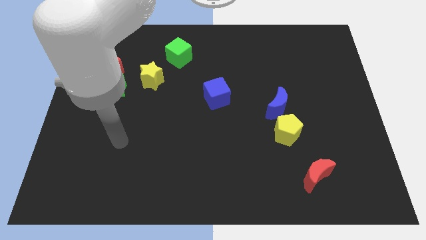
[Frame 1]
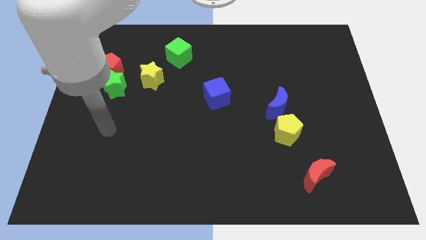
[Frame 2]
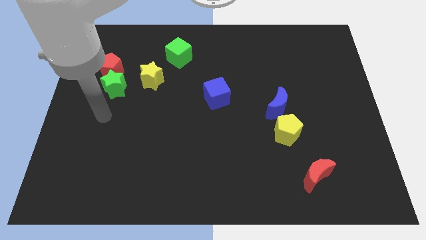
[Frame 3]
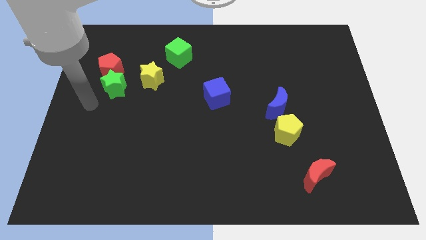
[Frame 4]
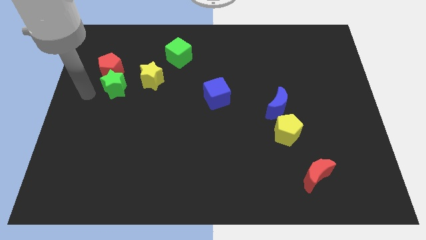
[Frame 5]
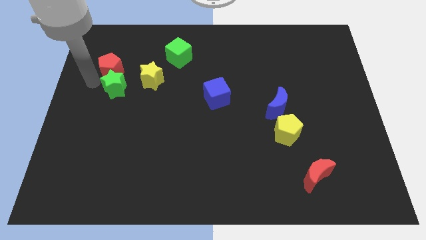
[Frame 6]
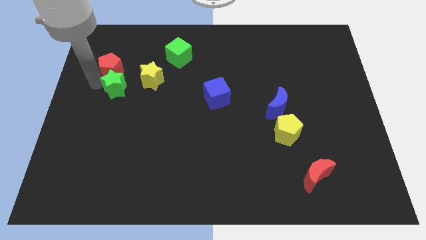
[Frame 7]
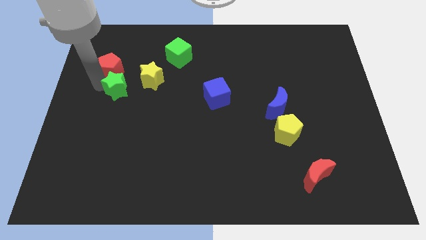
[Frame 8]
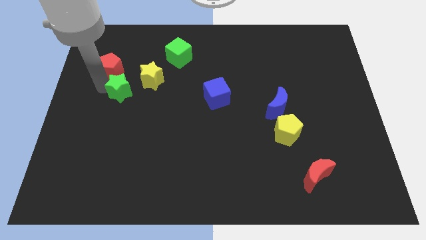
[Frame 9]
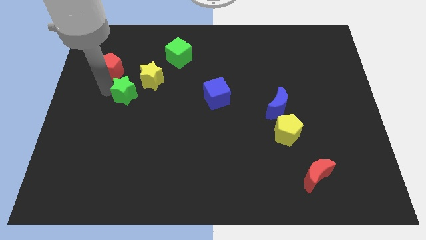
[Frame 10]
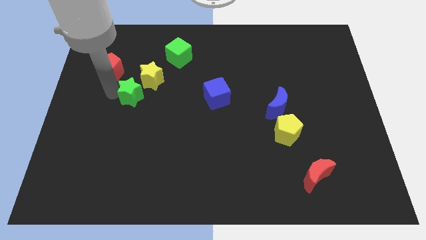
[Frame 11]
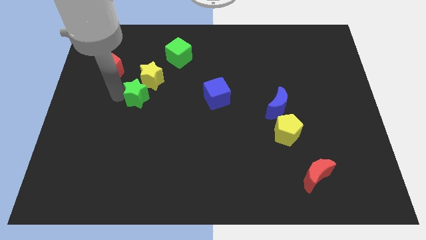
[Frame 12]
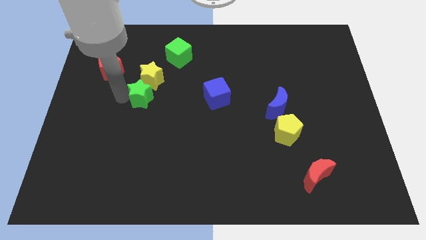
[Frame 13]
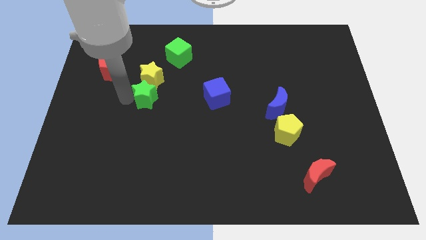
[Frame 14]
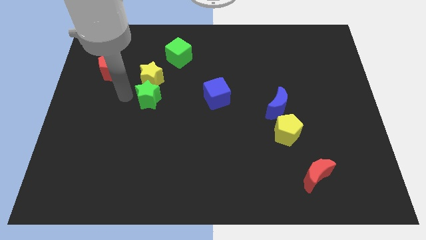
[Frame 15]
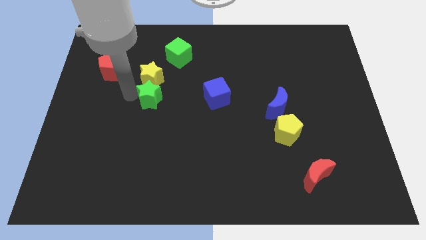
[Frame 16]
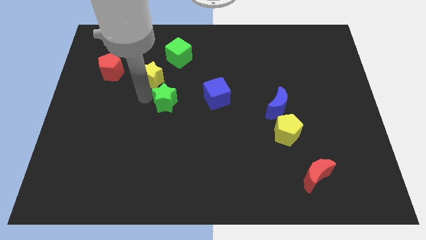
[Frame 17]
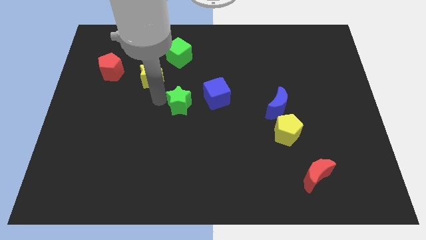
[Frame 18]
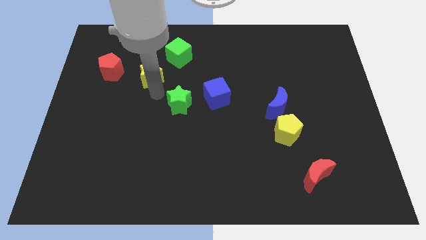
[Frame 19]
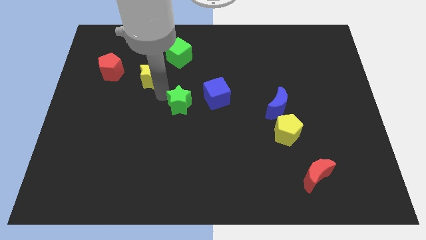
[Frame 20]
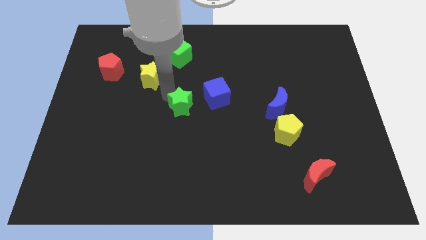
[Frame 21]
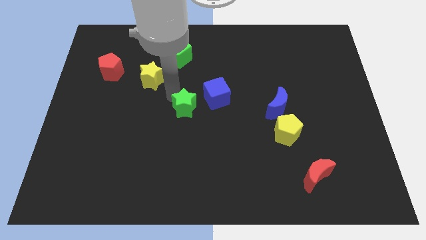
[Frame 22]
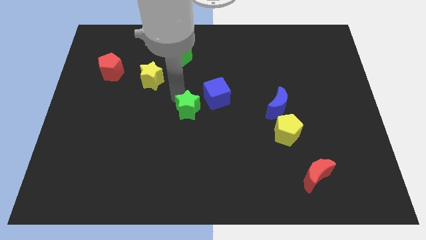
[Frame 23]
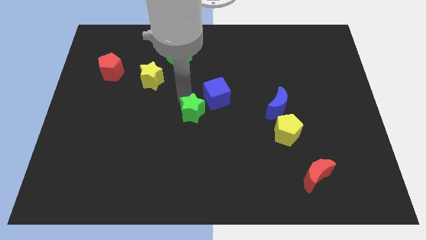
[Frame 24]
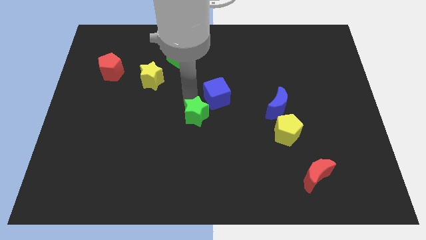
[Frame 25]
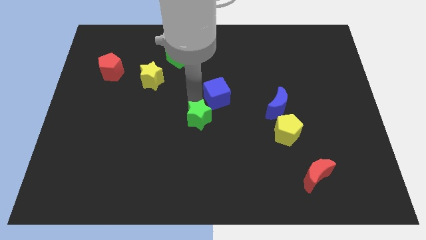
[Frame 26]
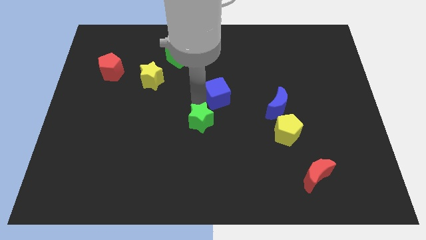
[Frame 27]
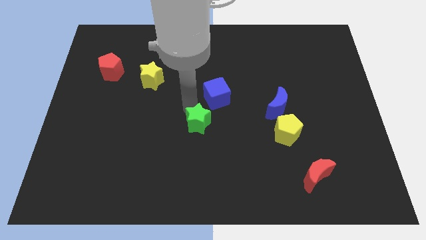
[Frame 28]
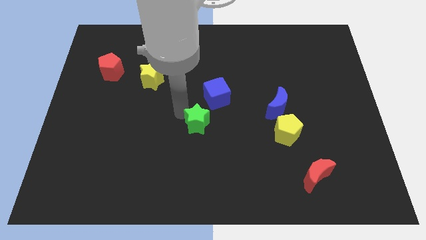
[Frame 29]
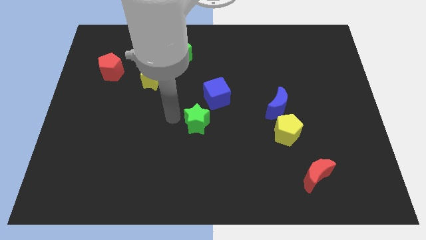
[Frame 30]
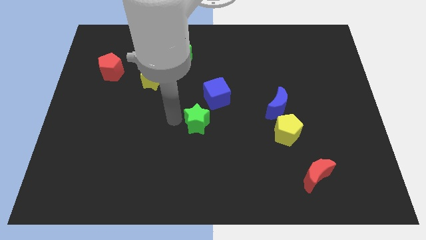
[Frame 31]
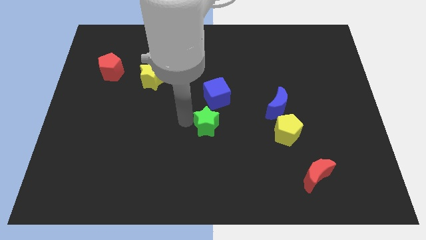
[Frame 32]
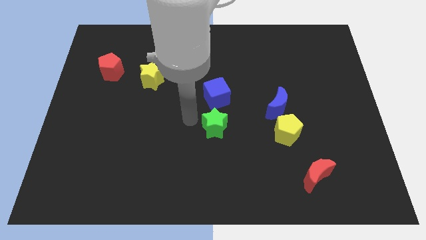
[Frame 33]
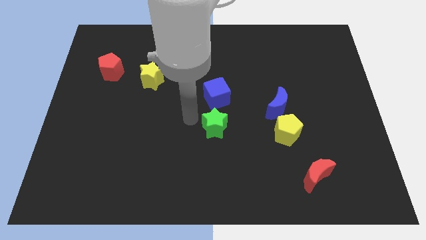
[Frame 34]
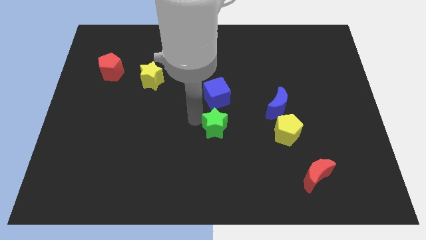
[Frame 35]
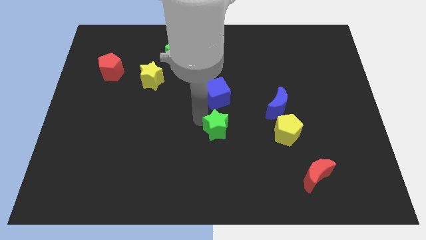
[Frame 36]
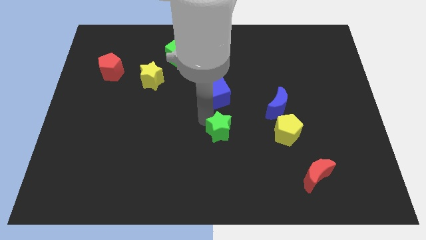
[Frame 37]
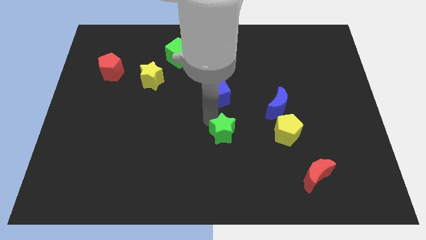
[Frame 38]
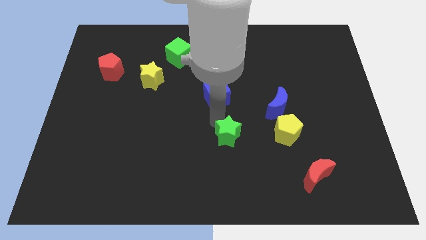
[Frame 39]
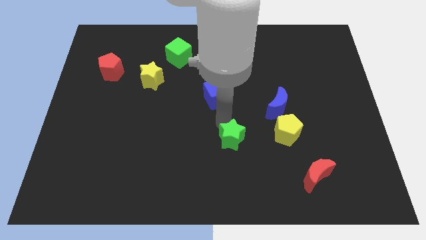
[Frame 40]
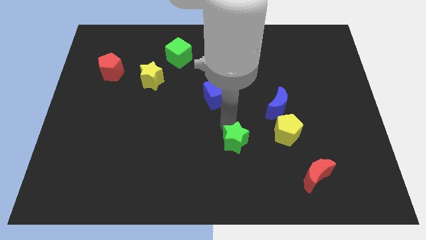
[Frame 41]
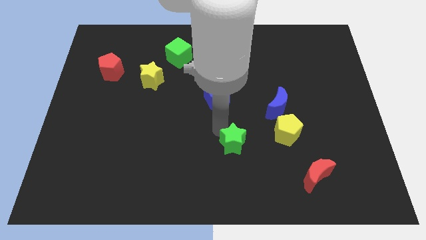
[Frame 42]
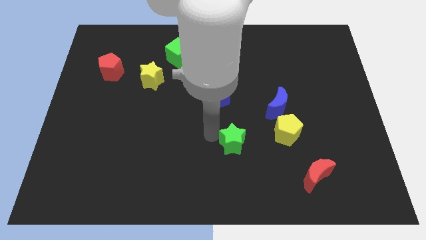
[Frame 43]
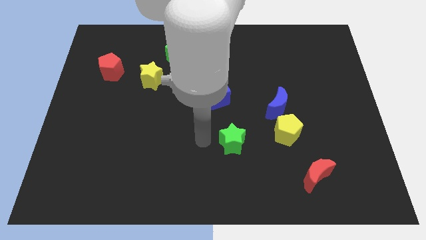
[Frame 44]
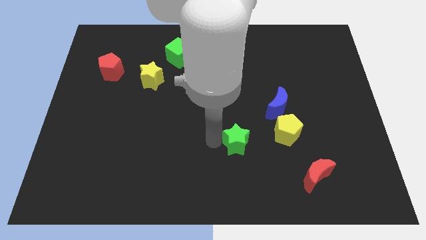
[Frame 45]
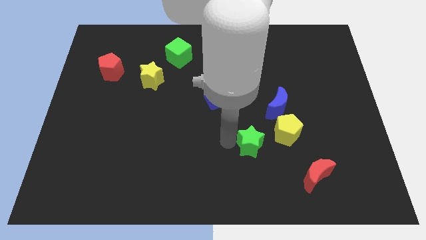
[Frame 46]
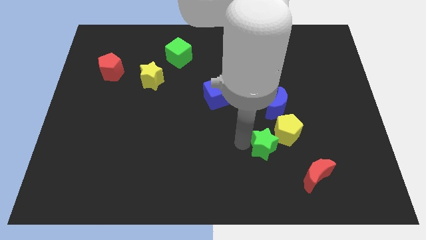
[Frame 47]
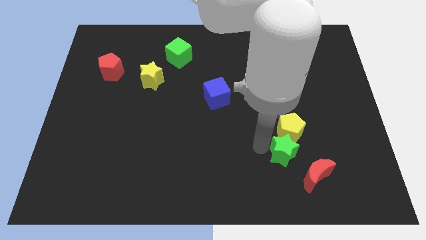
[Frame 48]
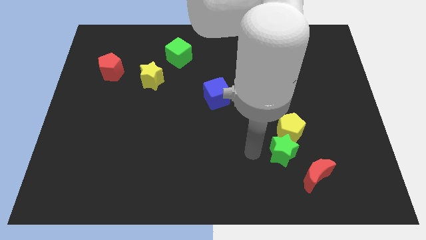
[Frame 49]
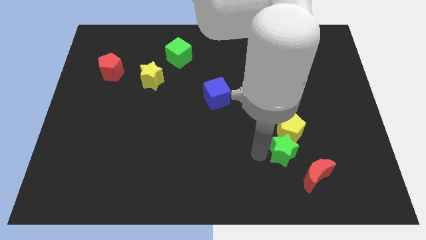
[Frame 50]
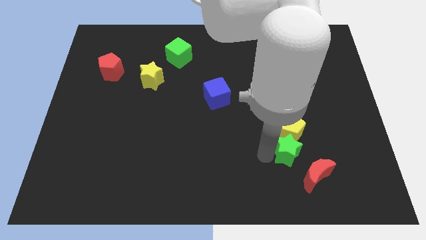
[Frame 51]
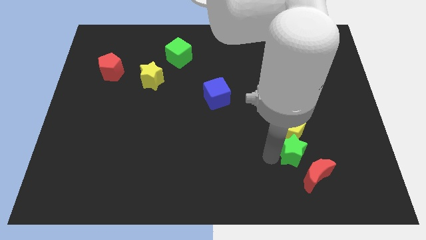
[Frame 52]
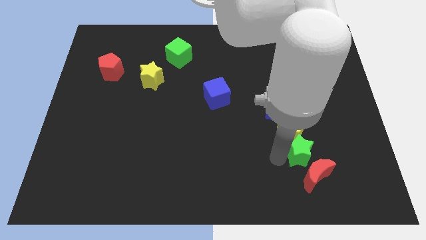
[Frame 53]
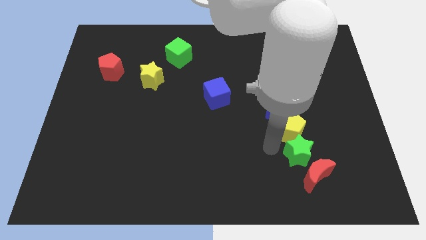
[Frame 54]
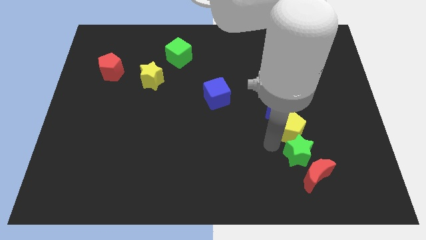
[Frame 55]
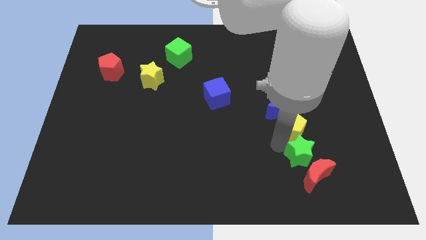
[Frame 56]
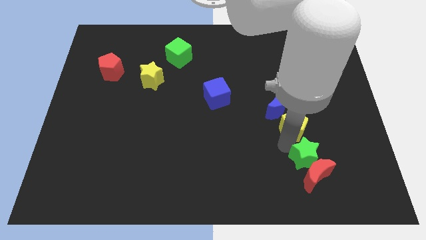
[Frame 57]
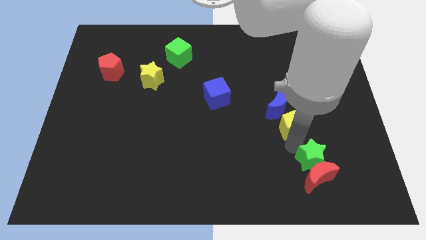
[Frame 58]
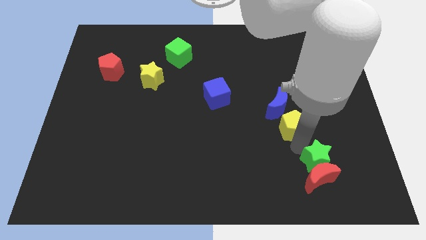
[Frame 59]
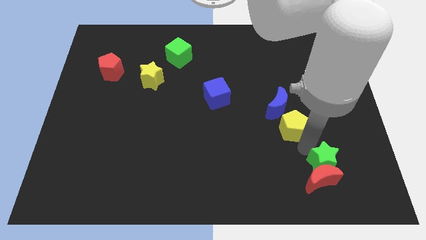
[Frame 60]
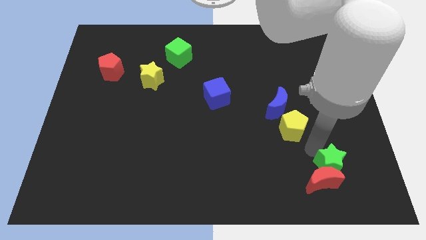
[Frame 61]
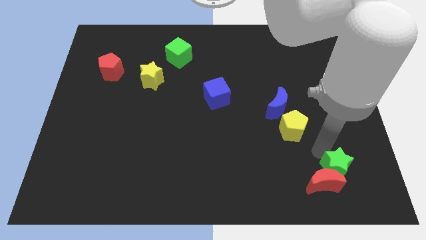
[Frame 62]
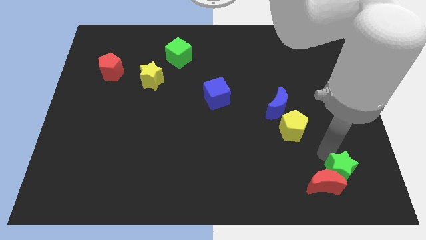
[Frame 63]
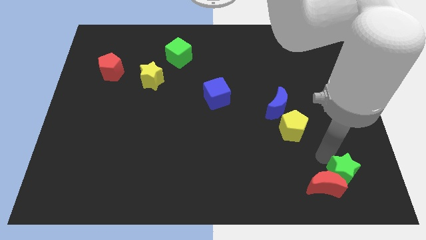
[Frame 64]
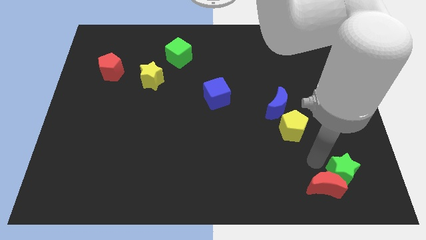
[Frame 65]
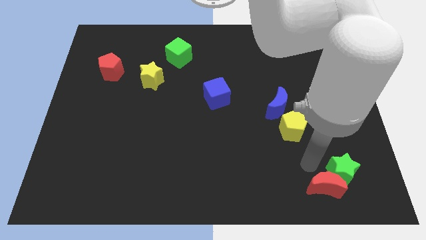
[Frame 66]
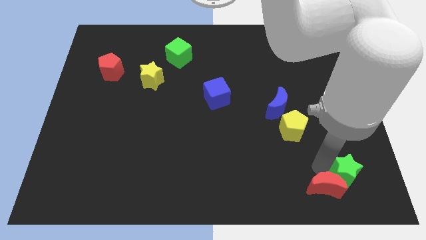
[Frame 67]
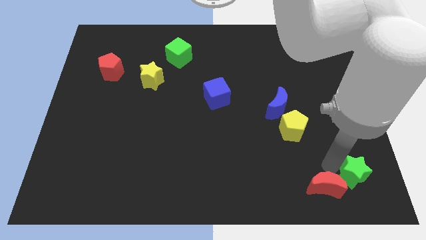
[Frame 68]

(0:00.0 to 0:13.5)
push the green star to the bottom right
